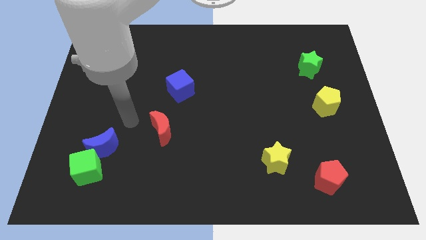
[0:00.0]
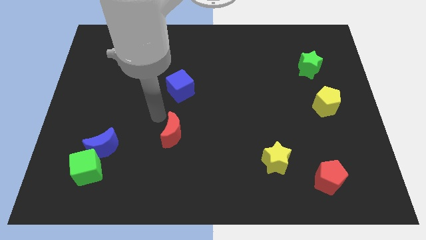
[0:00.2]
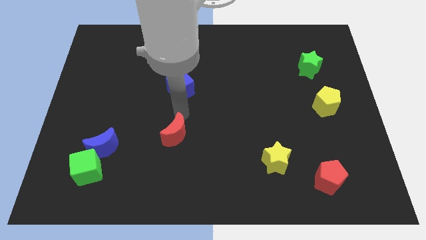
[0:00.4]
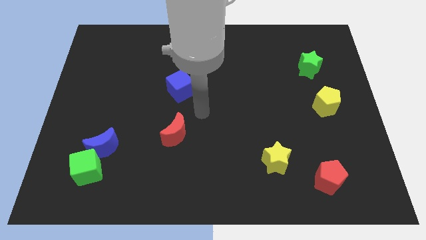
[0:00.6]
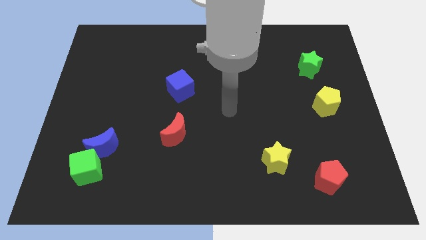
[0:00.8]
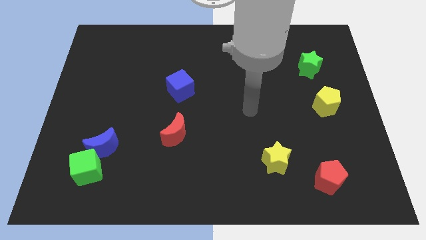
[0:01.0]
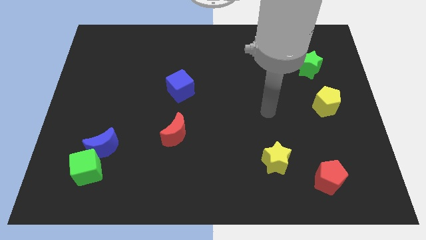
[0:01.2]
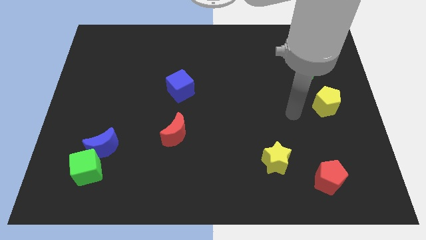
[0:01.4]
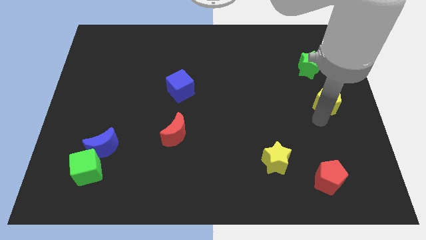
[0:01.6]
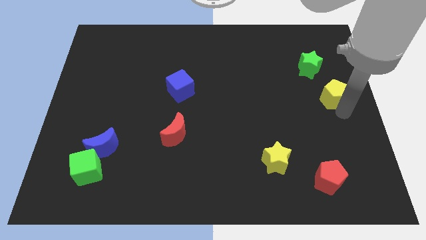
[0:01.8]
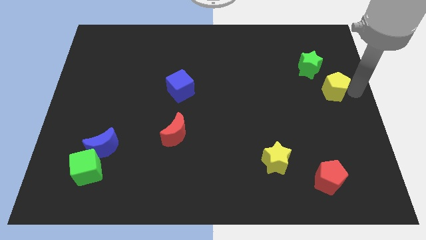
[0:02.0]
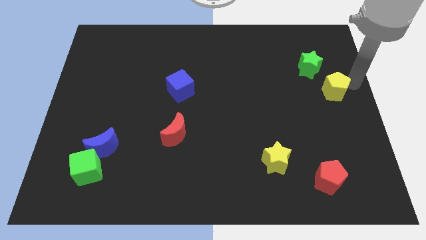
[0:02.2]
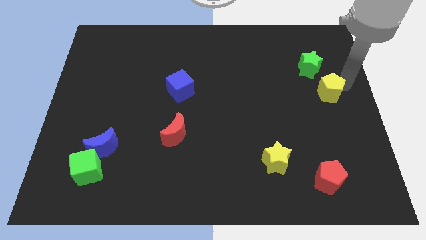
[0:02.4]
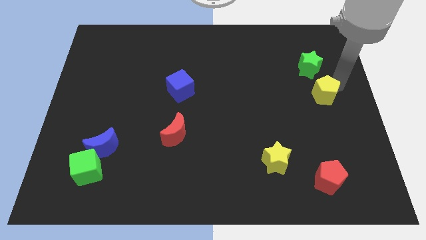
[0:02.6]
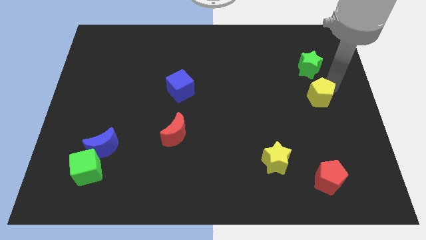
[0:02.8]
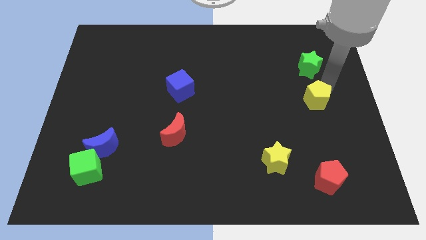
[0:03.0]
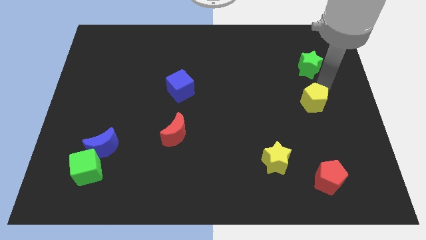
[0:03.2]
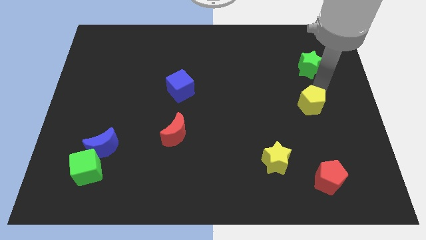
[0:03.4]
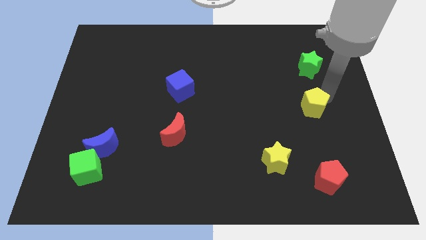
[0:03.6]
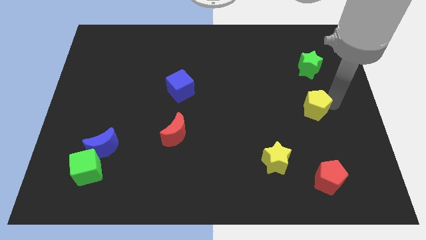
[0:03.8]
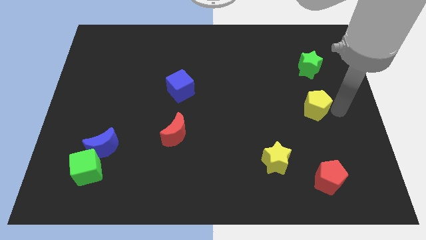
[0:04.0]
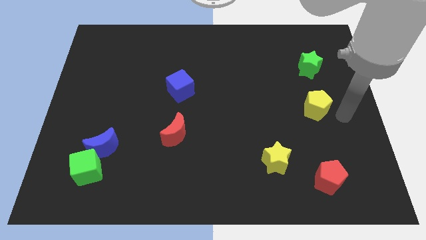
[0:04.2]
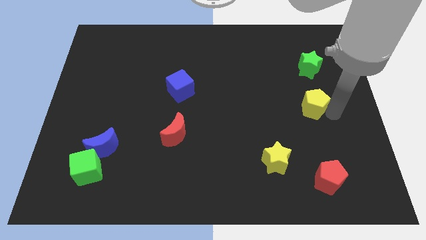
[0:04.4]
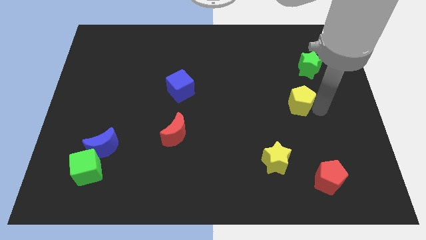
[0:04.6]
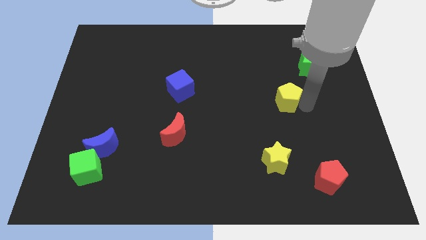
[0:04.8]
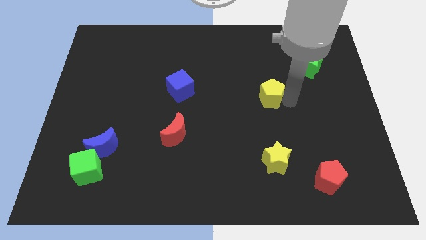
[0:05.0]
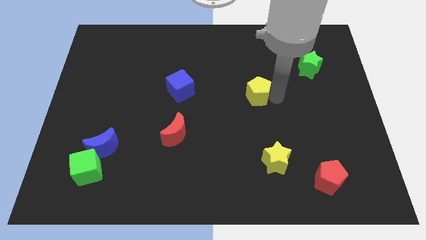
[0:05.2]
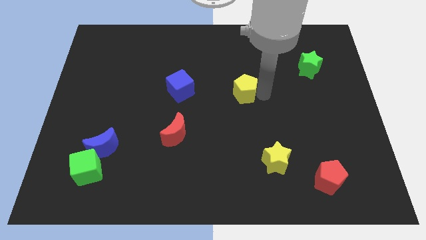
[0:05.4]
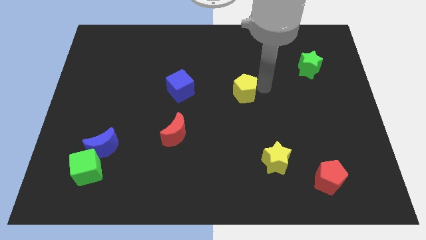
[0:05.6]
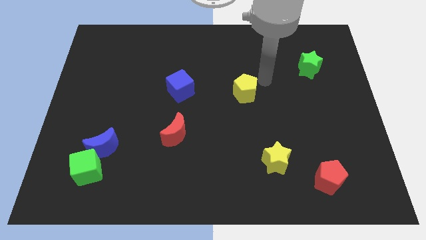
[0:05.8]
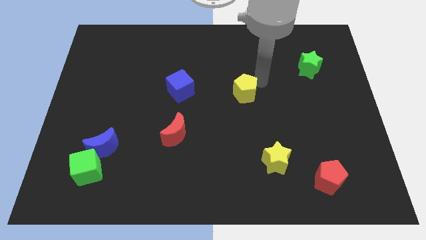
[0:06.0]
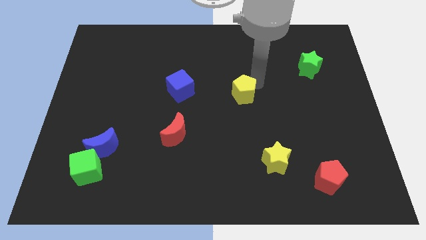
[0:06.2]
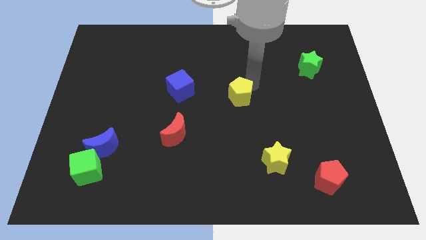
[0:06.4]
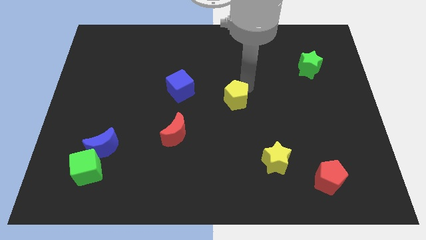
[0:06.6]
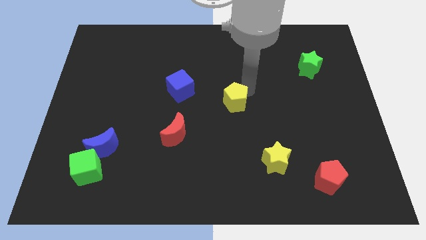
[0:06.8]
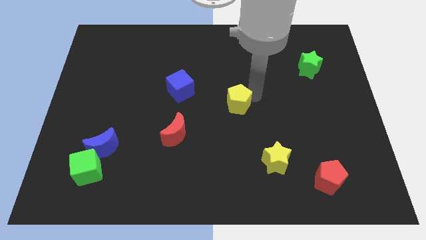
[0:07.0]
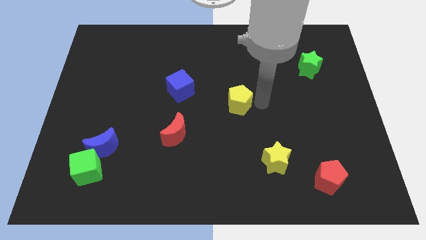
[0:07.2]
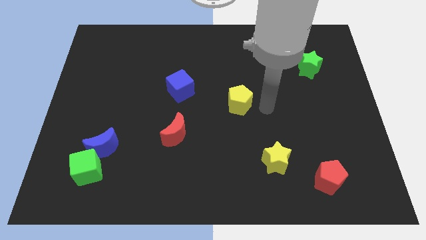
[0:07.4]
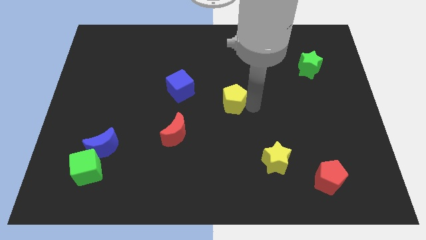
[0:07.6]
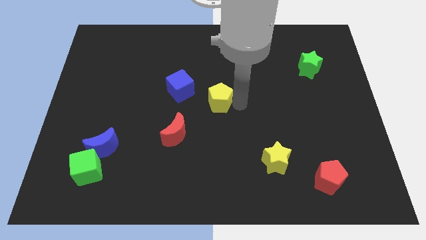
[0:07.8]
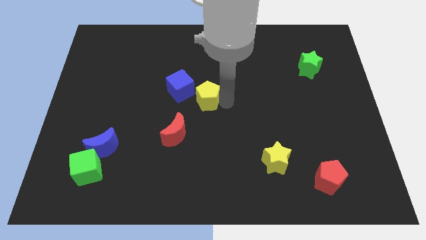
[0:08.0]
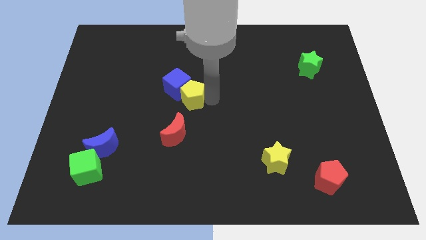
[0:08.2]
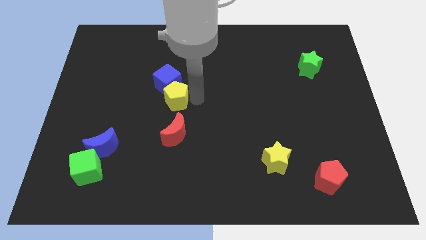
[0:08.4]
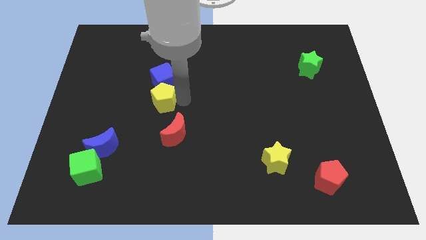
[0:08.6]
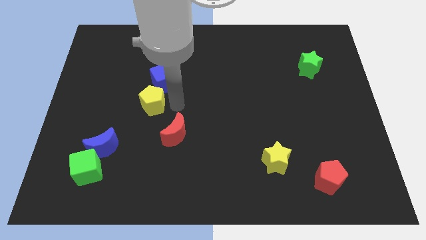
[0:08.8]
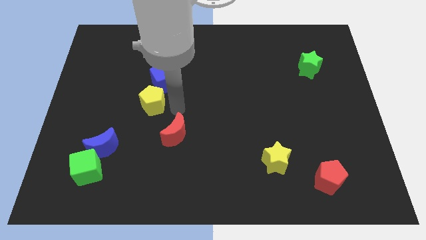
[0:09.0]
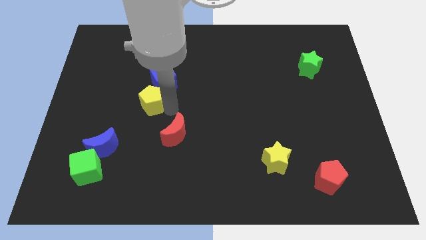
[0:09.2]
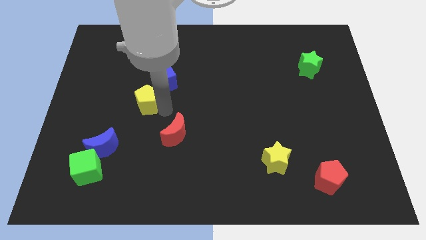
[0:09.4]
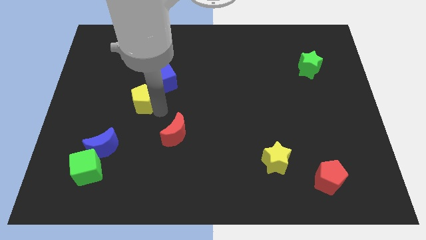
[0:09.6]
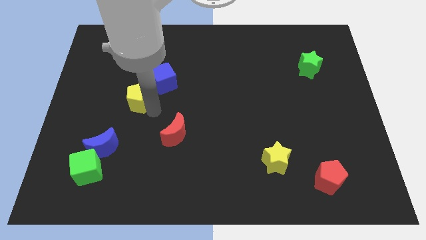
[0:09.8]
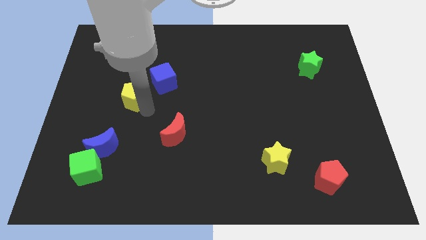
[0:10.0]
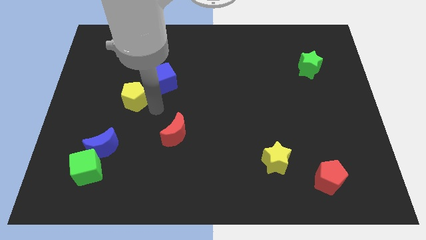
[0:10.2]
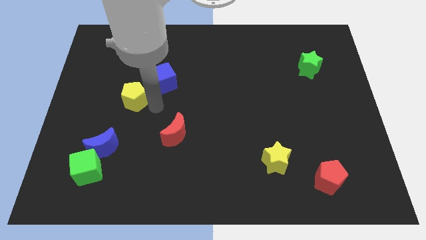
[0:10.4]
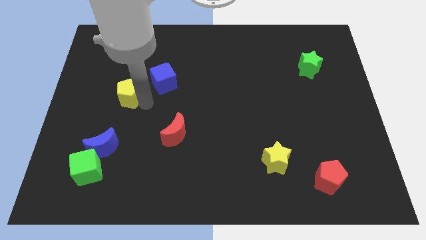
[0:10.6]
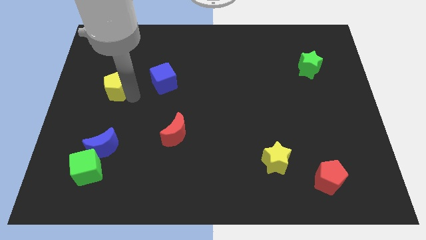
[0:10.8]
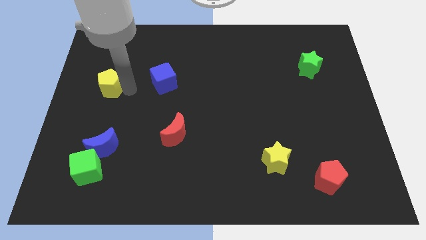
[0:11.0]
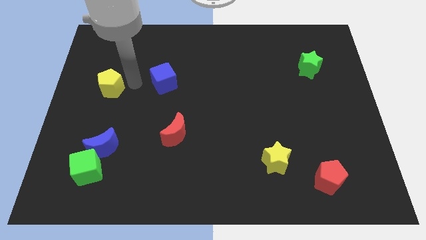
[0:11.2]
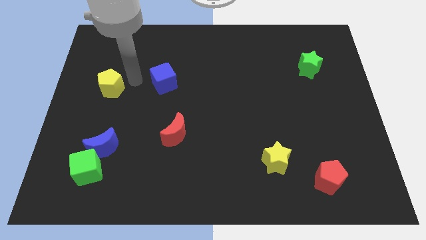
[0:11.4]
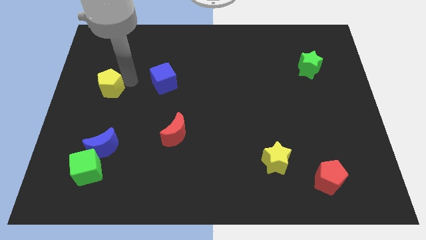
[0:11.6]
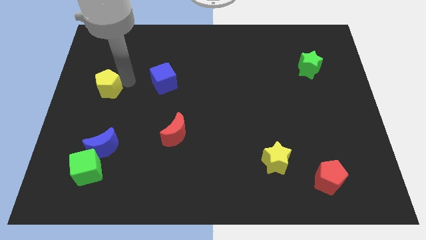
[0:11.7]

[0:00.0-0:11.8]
move the yellow pentagon to the left side
